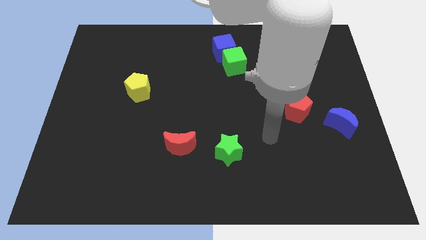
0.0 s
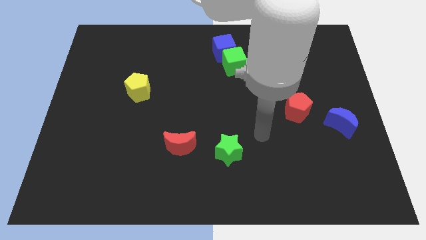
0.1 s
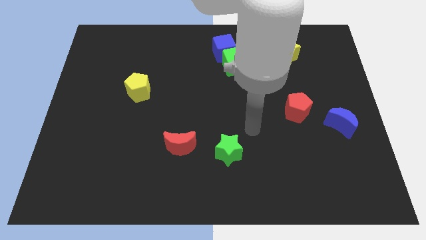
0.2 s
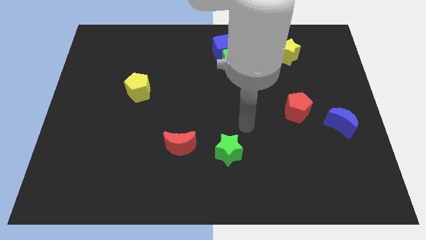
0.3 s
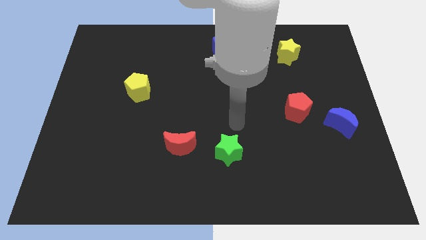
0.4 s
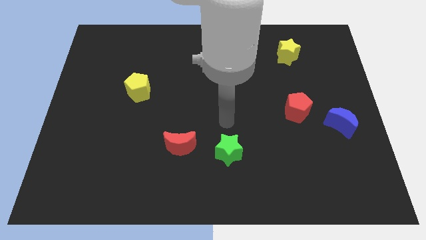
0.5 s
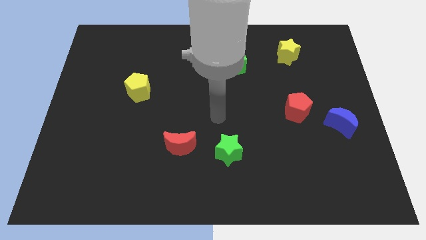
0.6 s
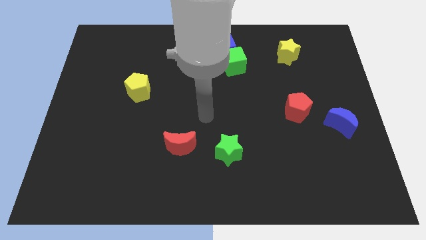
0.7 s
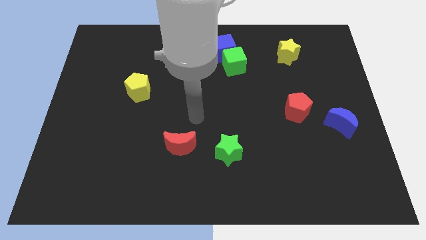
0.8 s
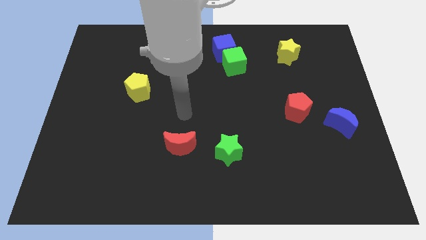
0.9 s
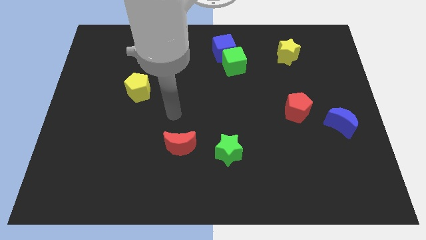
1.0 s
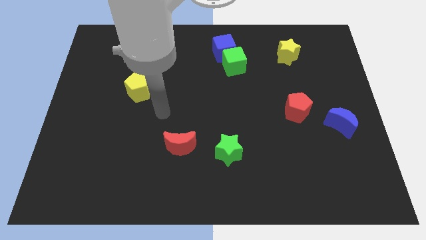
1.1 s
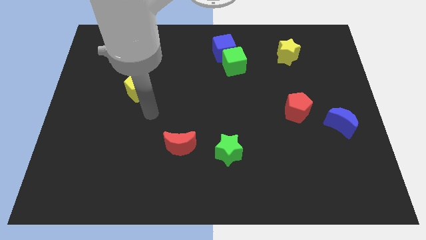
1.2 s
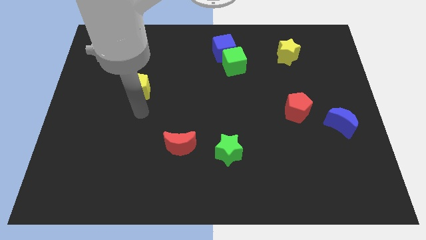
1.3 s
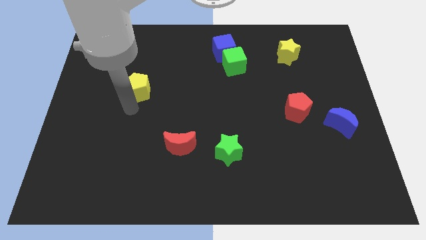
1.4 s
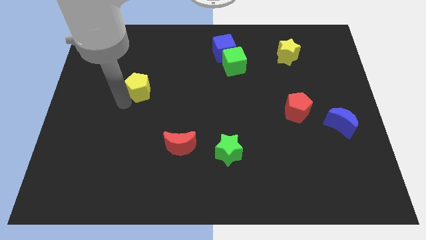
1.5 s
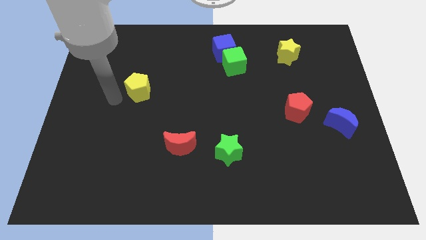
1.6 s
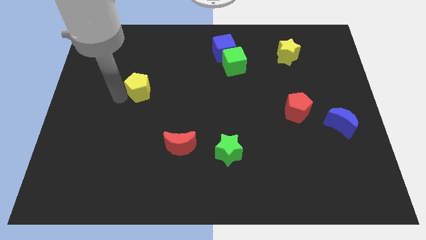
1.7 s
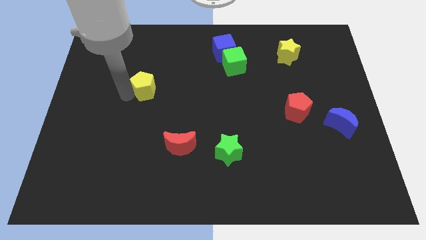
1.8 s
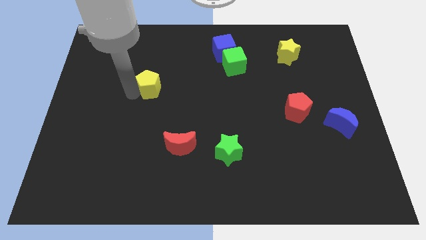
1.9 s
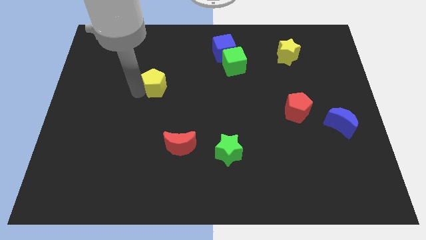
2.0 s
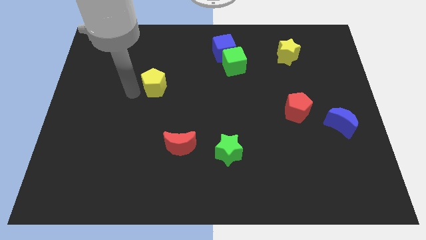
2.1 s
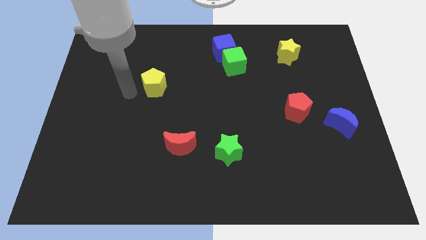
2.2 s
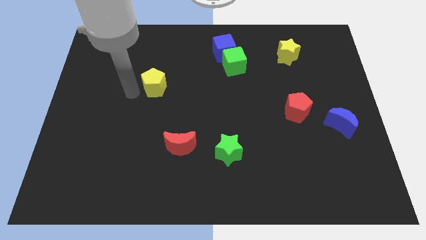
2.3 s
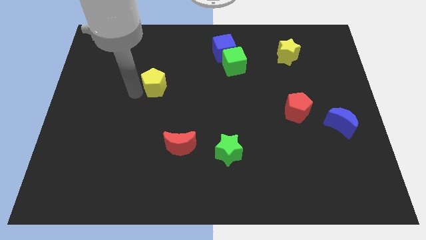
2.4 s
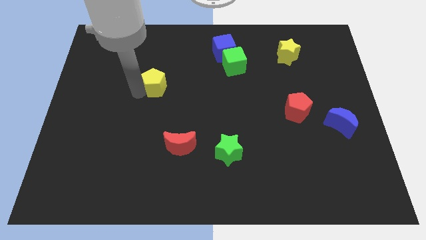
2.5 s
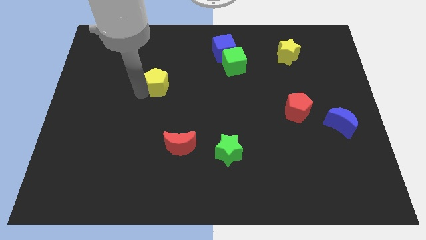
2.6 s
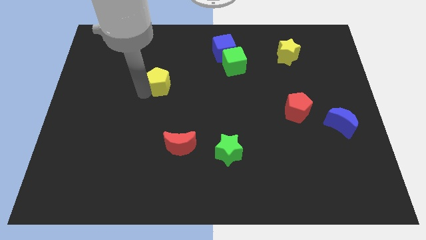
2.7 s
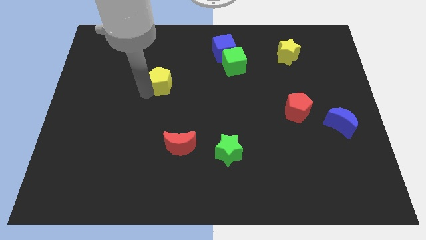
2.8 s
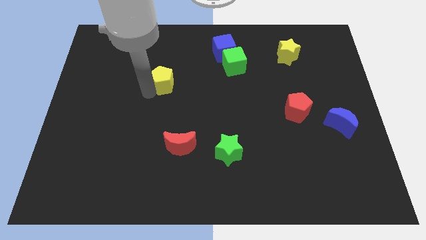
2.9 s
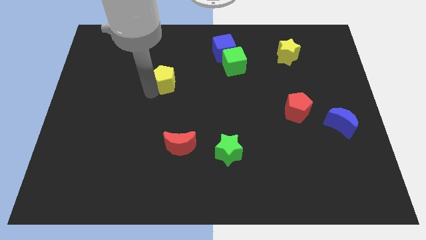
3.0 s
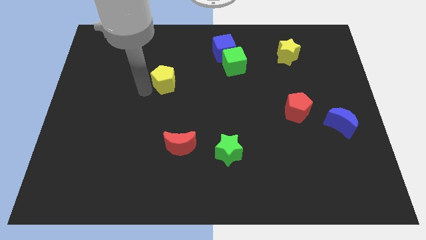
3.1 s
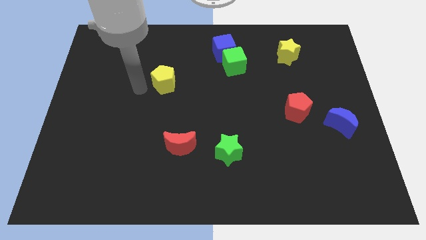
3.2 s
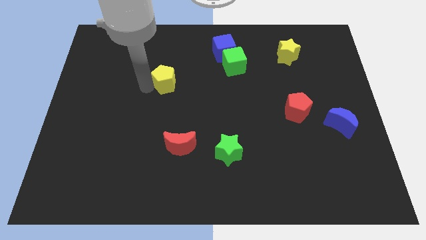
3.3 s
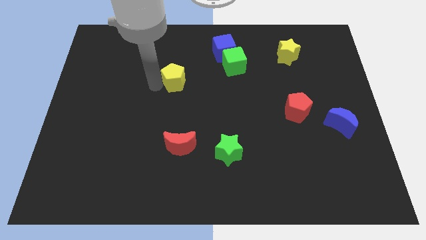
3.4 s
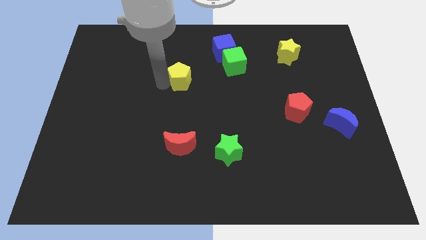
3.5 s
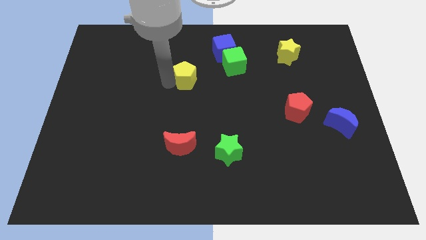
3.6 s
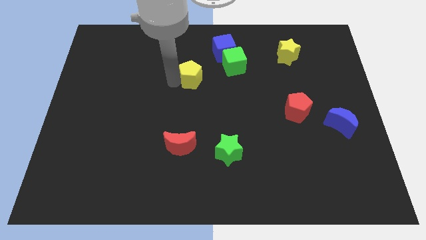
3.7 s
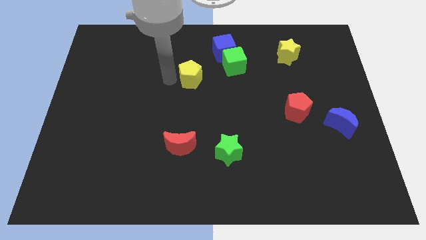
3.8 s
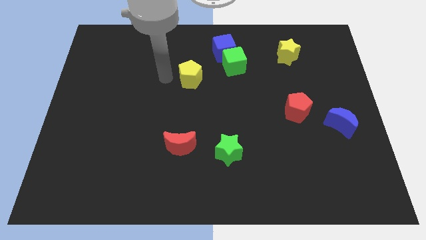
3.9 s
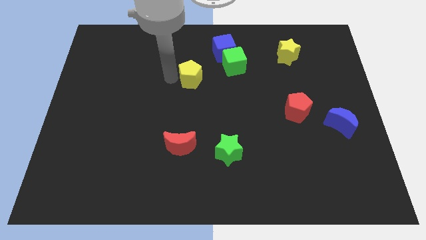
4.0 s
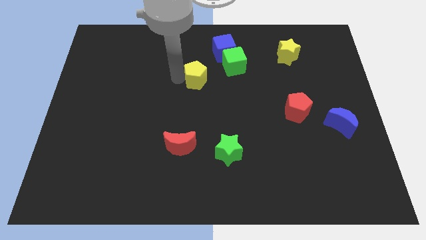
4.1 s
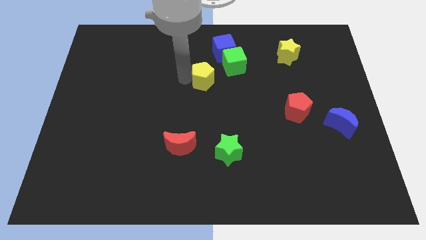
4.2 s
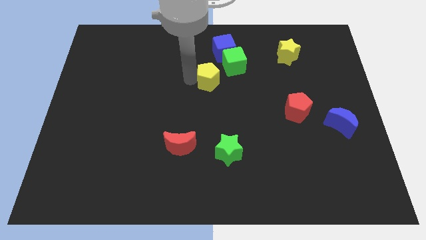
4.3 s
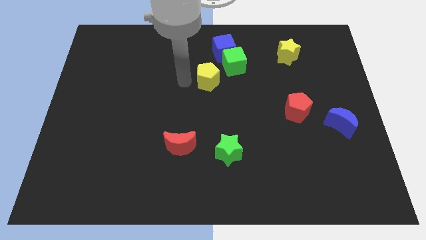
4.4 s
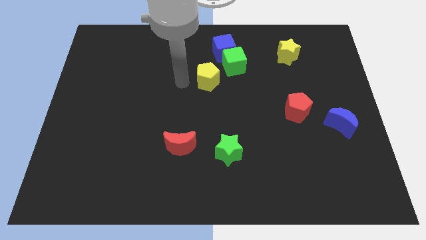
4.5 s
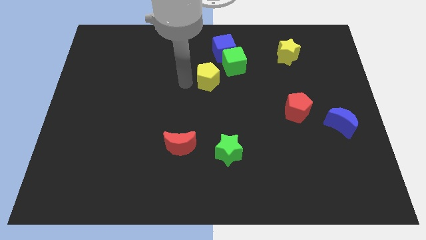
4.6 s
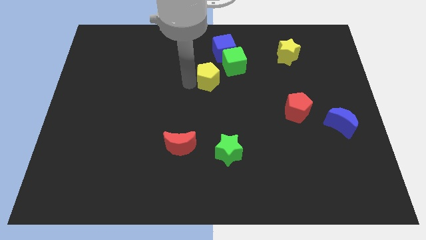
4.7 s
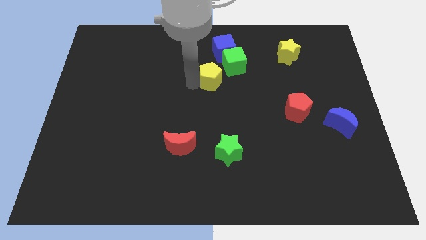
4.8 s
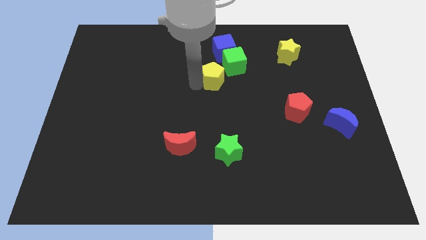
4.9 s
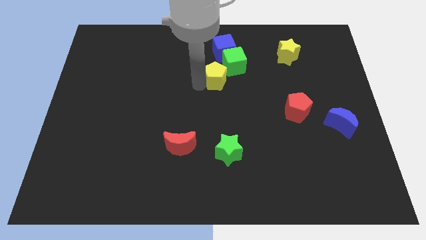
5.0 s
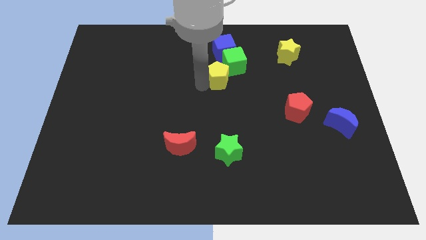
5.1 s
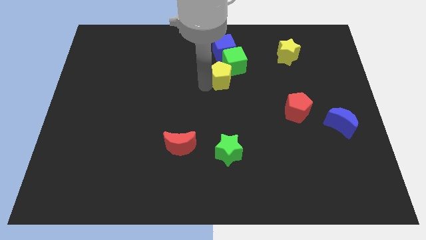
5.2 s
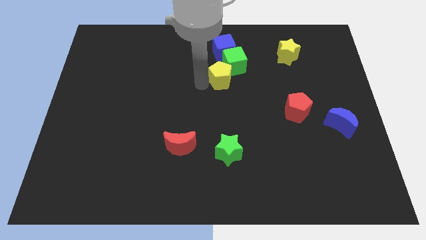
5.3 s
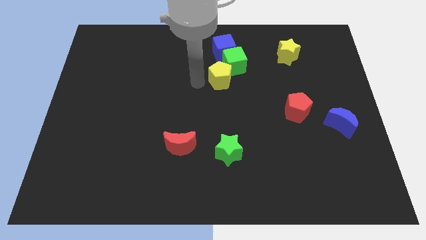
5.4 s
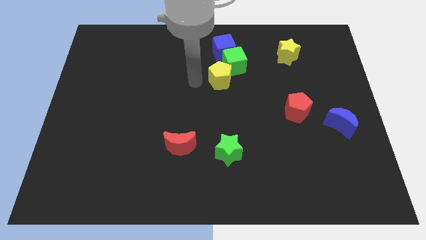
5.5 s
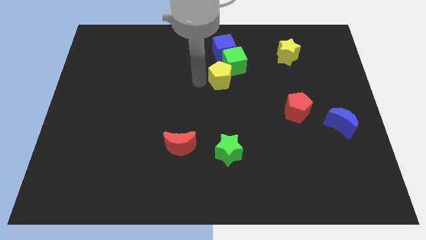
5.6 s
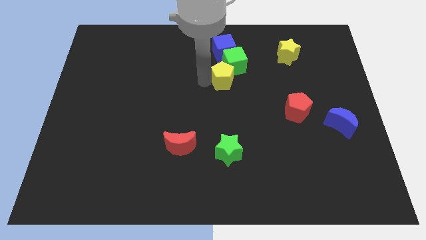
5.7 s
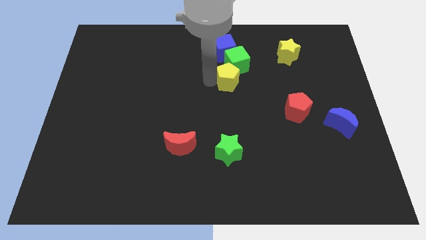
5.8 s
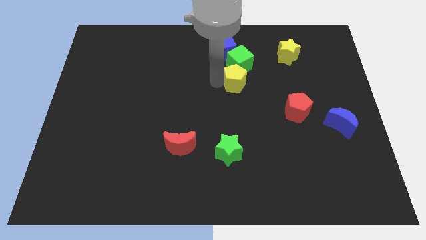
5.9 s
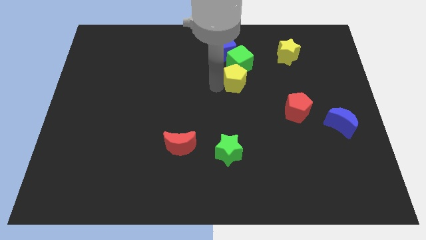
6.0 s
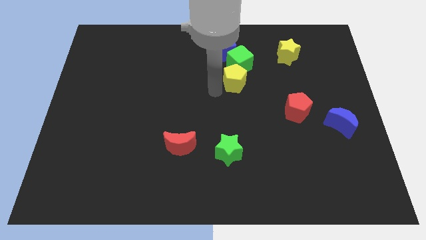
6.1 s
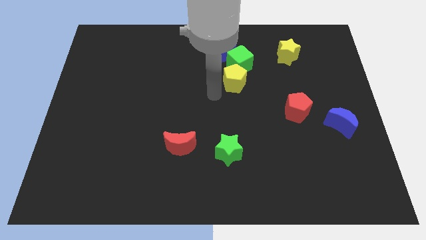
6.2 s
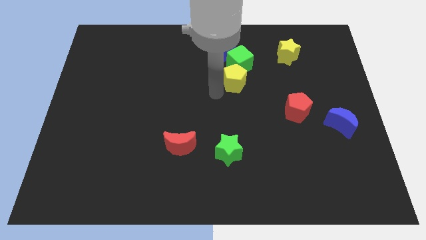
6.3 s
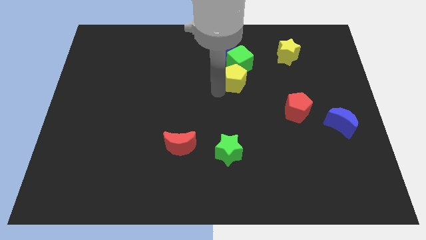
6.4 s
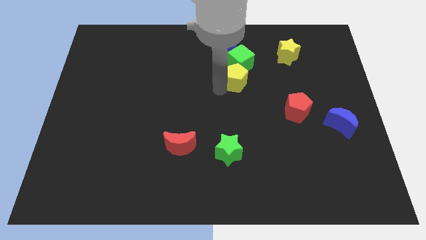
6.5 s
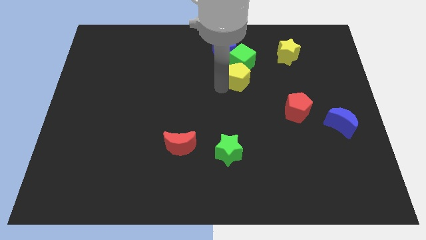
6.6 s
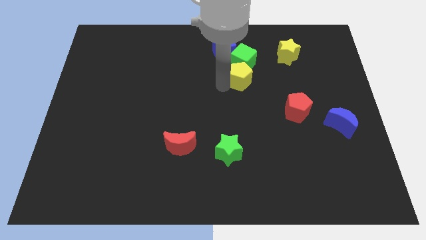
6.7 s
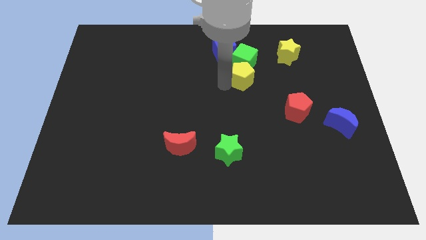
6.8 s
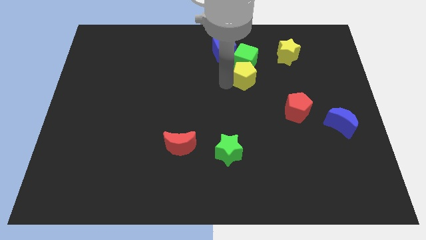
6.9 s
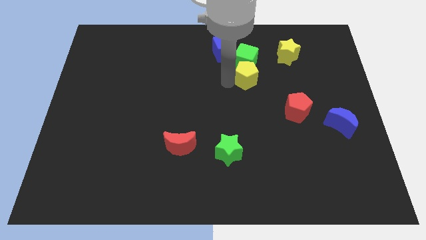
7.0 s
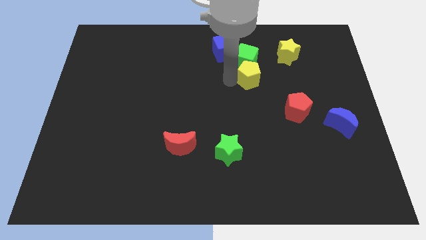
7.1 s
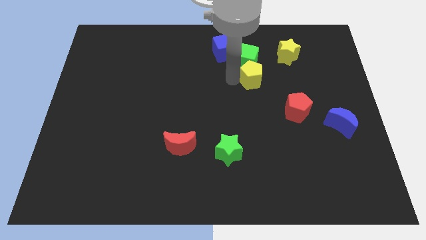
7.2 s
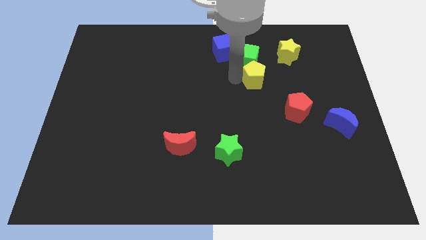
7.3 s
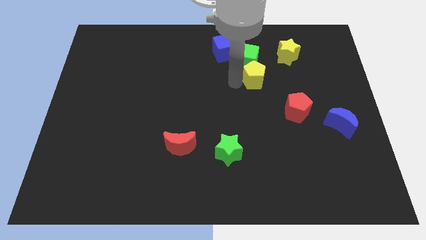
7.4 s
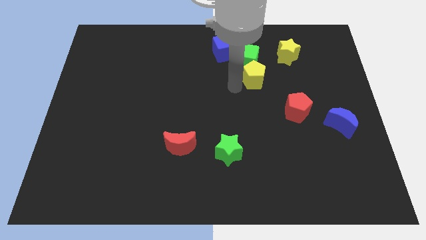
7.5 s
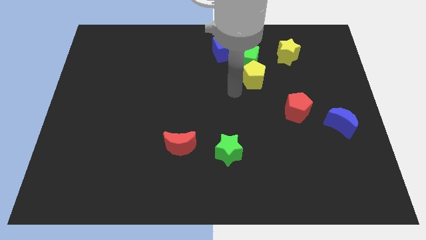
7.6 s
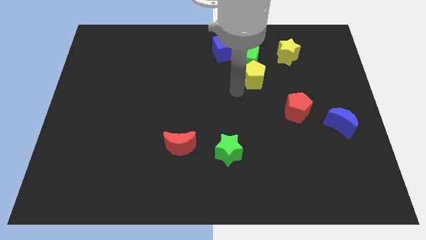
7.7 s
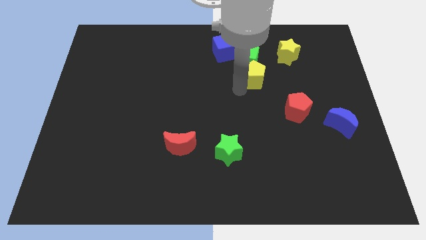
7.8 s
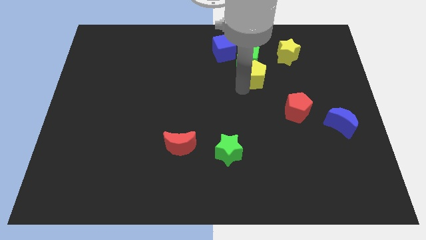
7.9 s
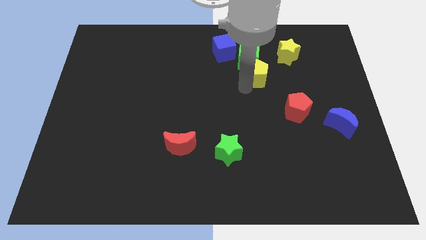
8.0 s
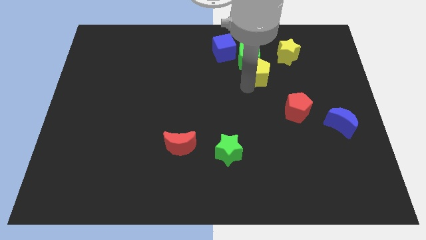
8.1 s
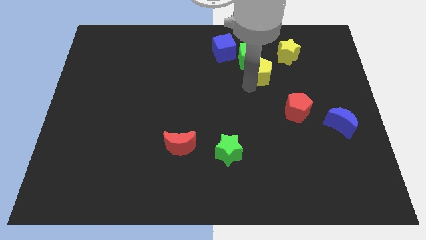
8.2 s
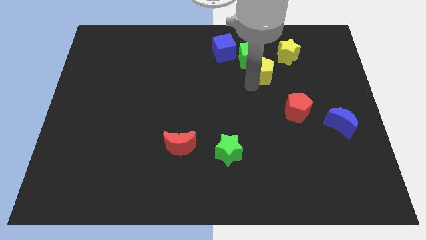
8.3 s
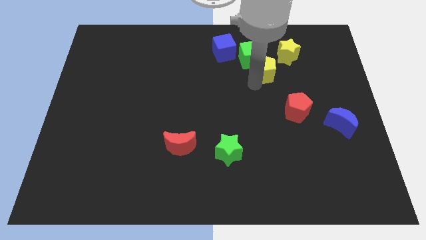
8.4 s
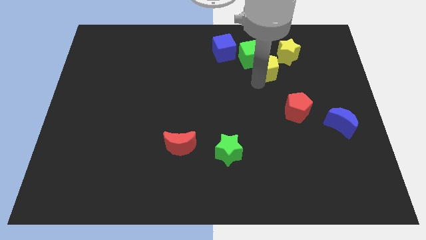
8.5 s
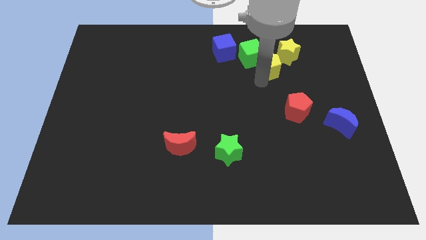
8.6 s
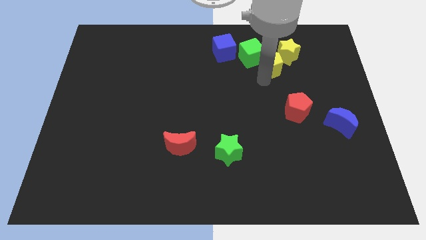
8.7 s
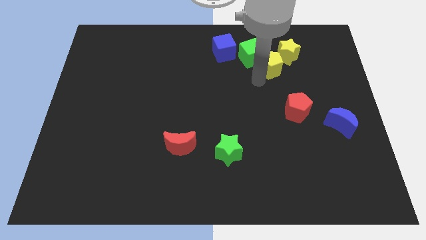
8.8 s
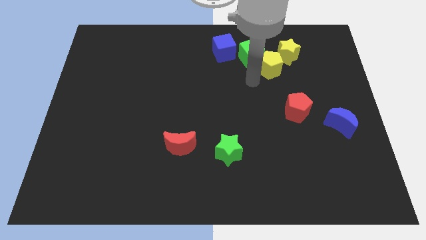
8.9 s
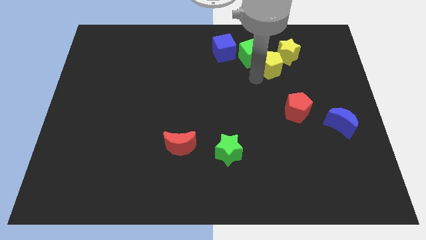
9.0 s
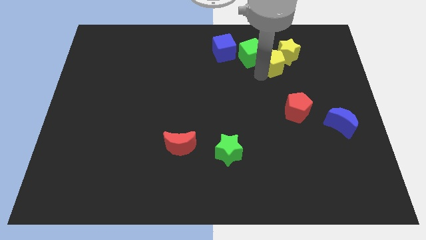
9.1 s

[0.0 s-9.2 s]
push the yellow pentagon next to the yellow star
